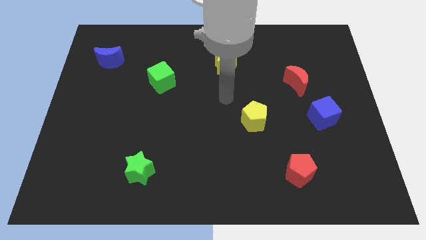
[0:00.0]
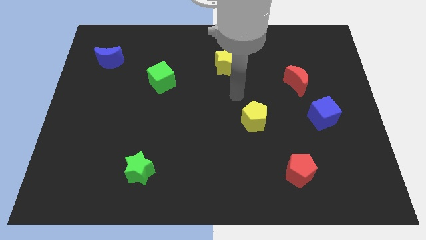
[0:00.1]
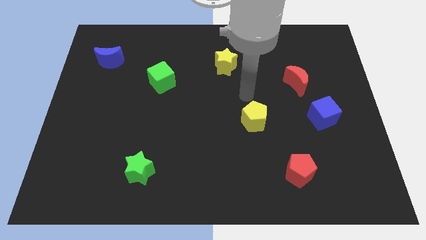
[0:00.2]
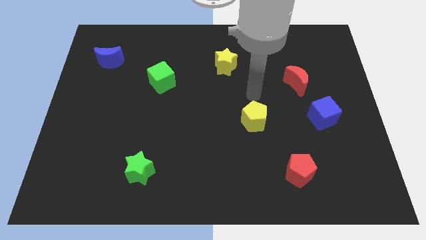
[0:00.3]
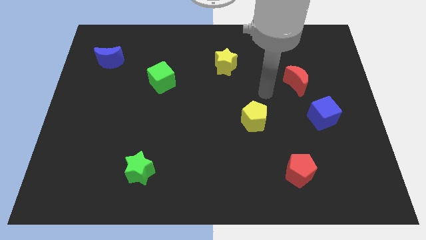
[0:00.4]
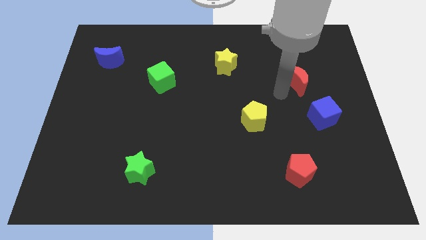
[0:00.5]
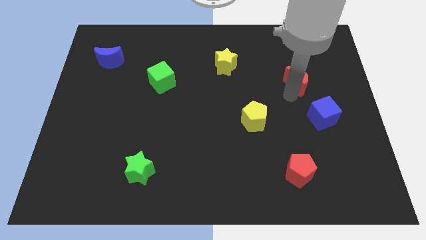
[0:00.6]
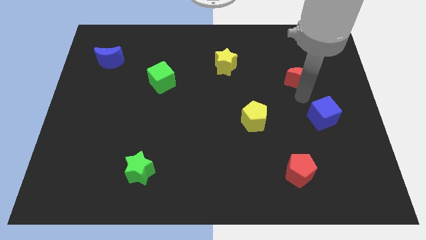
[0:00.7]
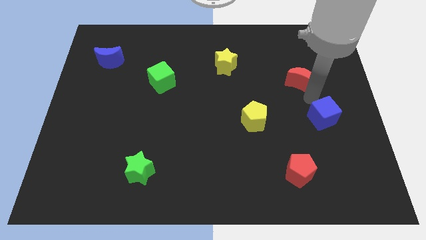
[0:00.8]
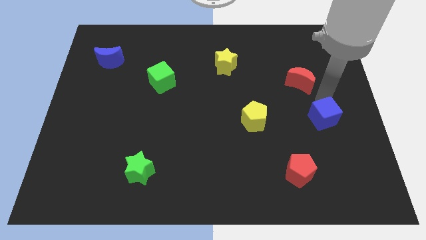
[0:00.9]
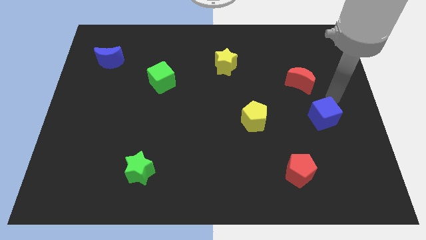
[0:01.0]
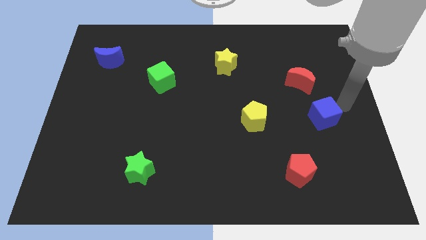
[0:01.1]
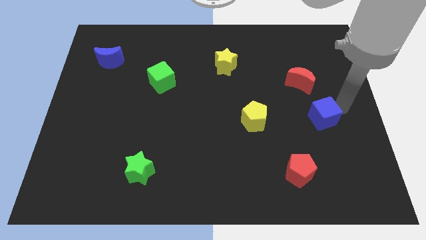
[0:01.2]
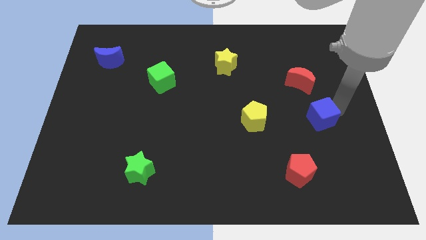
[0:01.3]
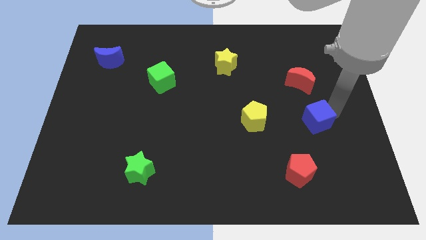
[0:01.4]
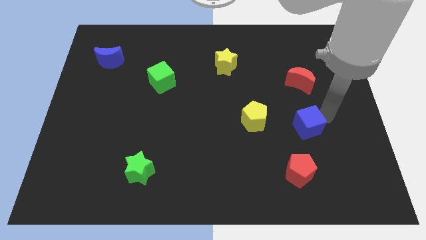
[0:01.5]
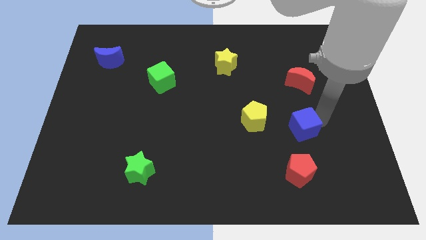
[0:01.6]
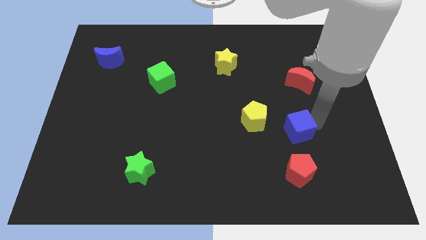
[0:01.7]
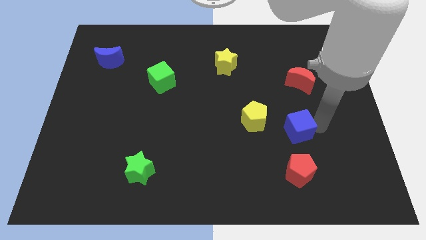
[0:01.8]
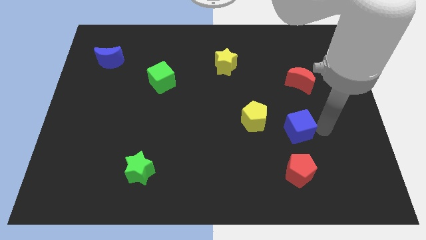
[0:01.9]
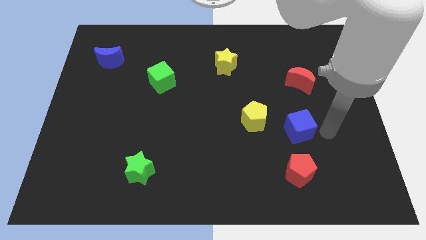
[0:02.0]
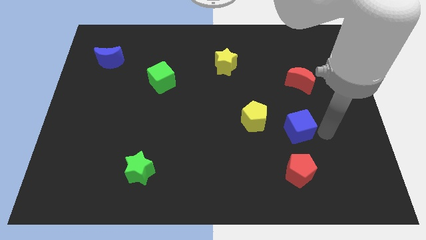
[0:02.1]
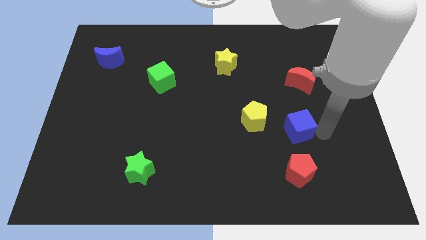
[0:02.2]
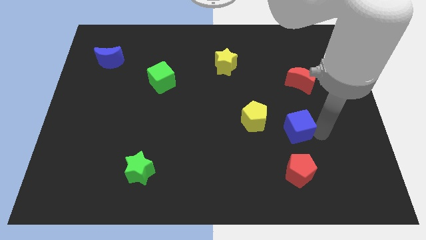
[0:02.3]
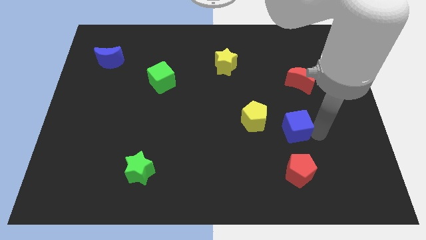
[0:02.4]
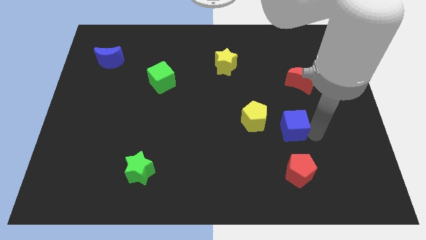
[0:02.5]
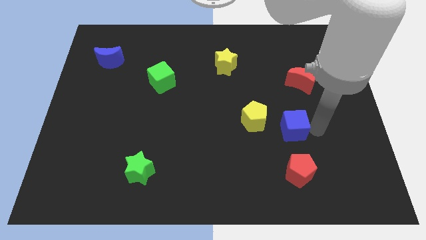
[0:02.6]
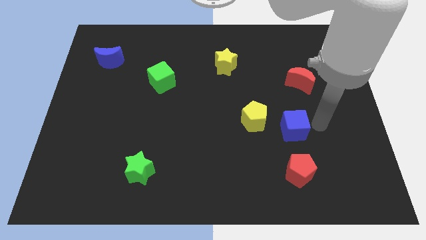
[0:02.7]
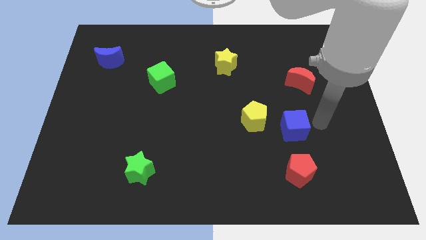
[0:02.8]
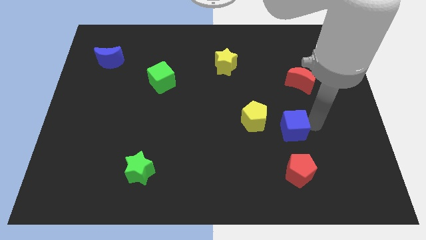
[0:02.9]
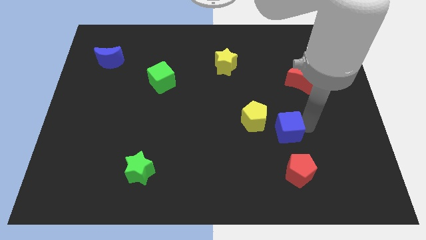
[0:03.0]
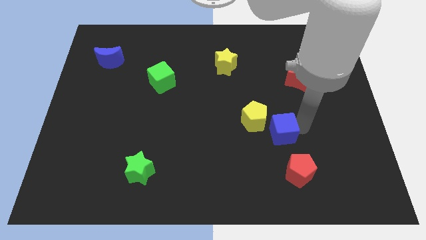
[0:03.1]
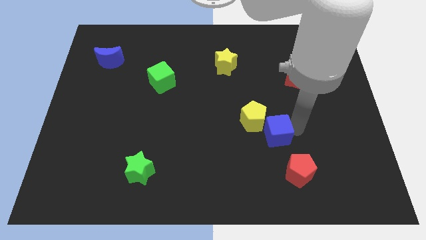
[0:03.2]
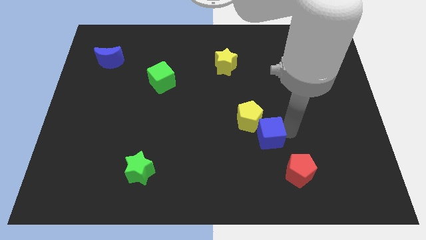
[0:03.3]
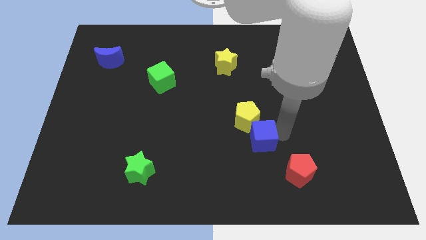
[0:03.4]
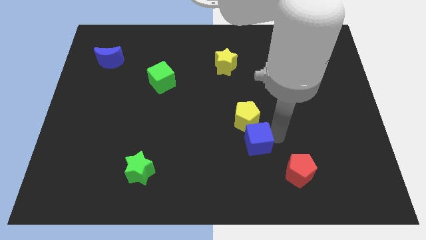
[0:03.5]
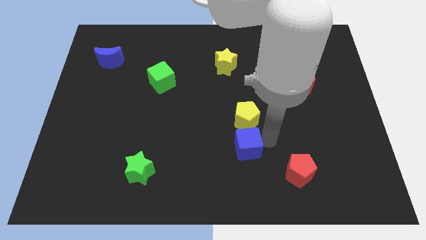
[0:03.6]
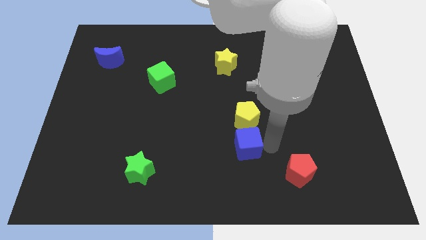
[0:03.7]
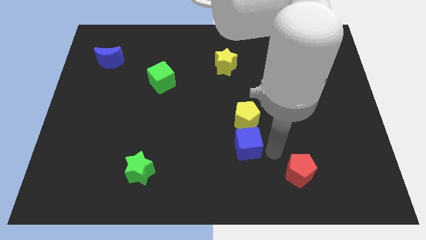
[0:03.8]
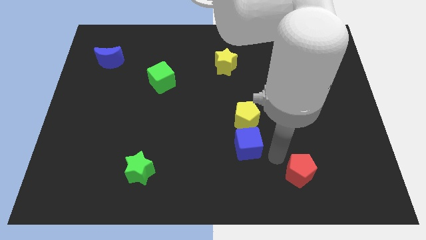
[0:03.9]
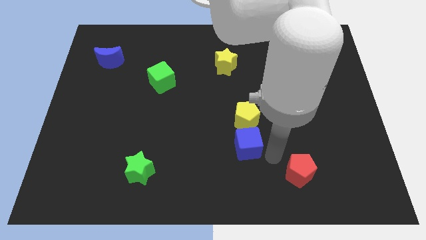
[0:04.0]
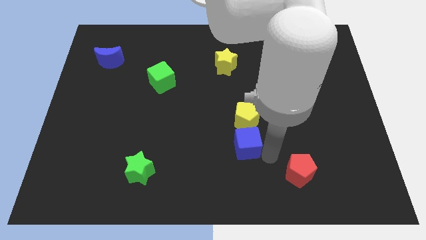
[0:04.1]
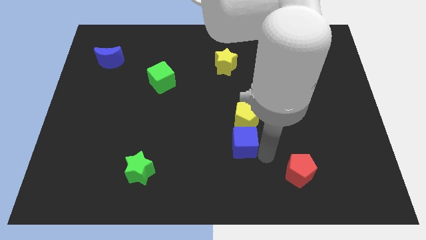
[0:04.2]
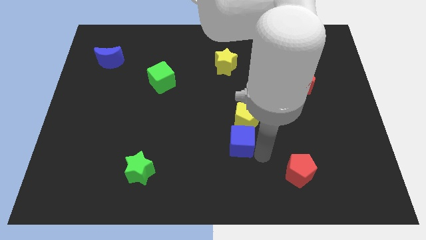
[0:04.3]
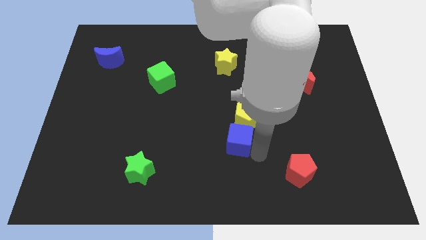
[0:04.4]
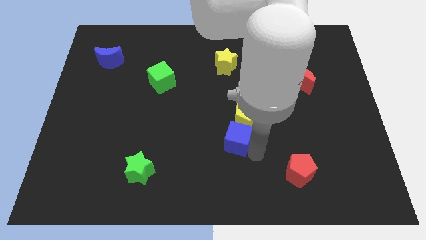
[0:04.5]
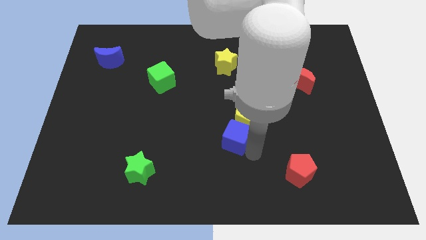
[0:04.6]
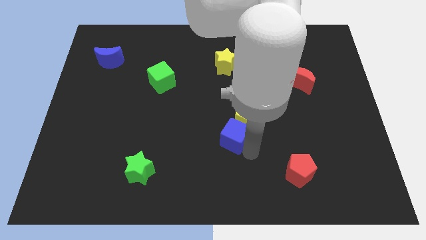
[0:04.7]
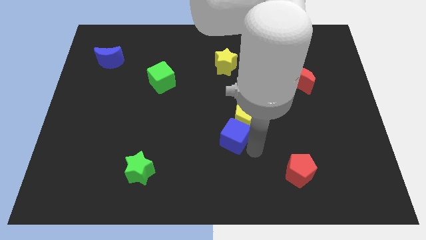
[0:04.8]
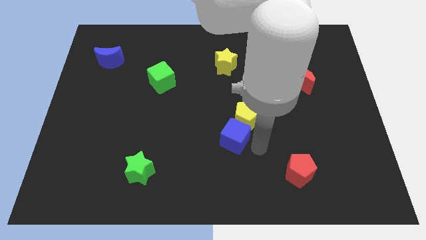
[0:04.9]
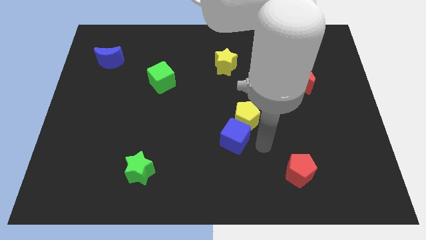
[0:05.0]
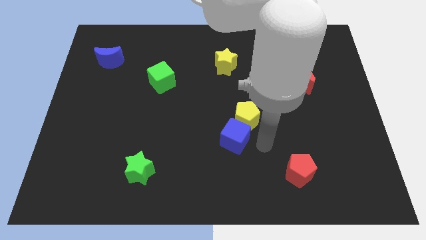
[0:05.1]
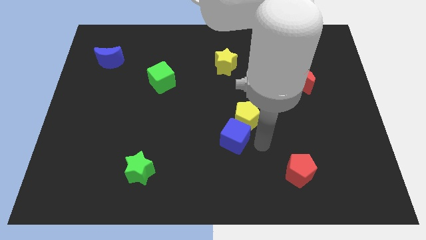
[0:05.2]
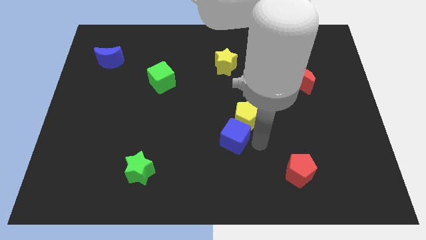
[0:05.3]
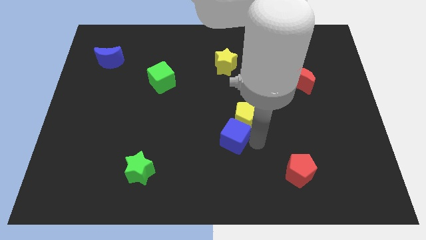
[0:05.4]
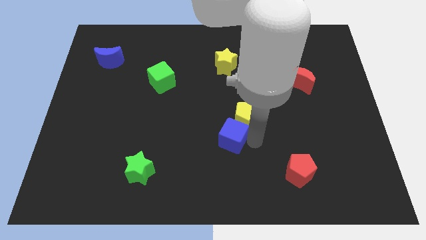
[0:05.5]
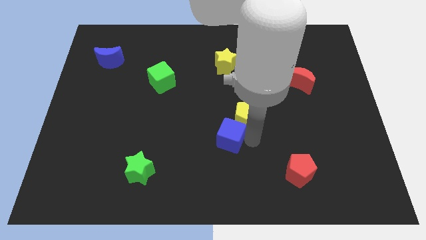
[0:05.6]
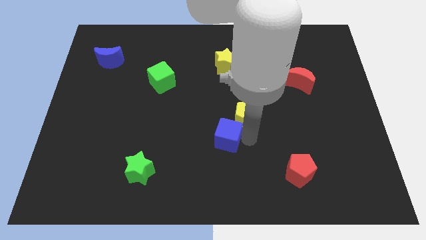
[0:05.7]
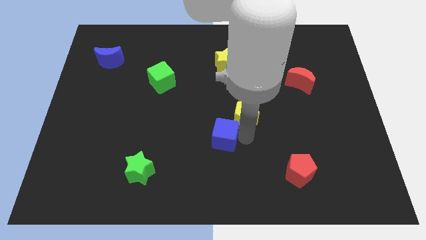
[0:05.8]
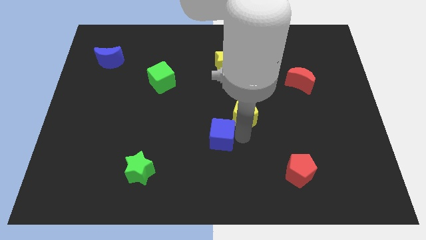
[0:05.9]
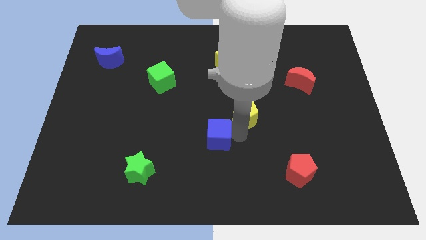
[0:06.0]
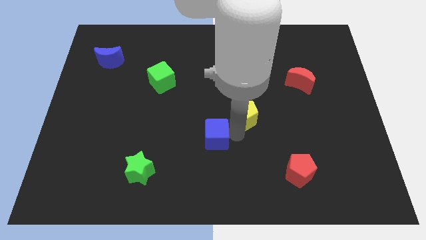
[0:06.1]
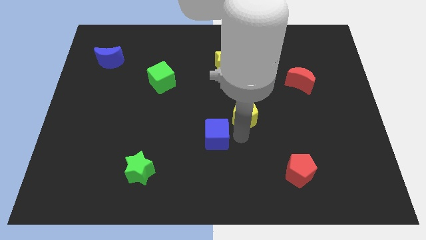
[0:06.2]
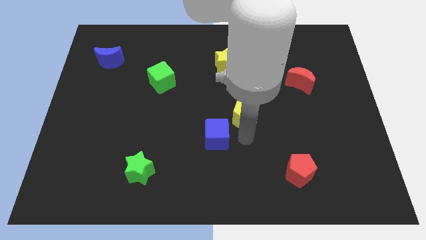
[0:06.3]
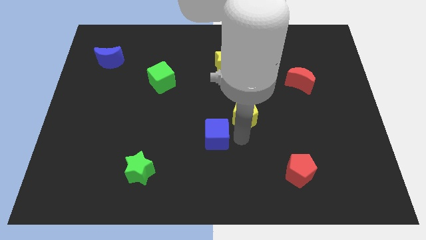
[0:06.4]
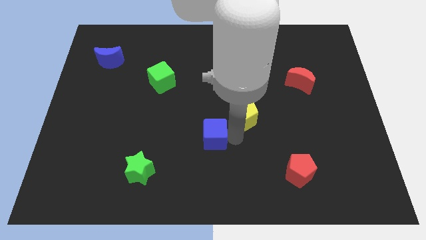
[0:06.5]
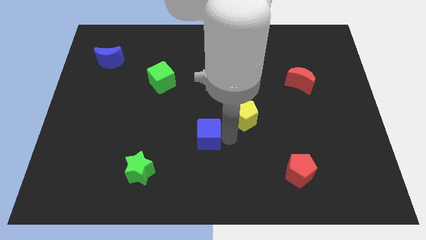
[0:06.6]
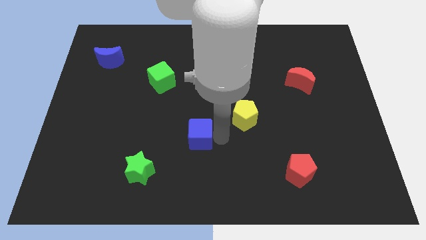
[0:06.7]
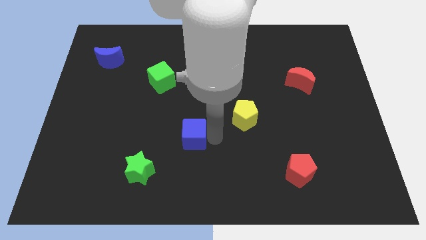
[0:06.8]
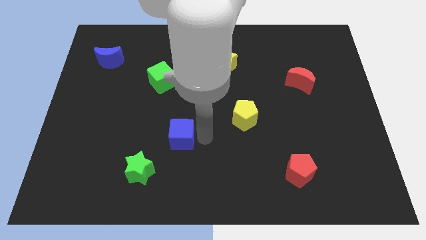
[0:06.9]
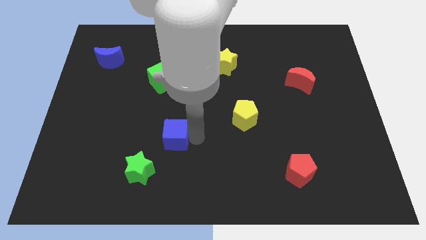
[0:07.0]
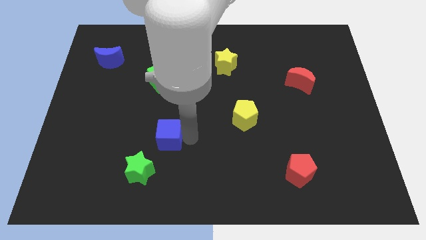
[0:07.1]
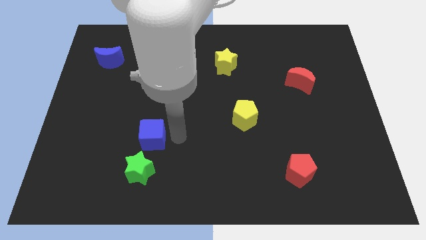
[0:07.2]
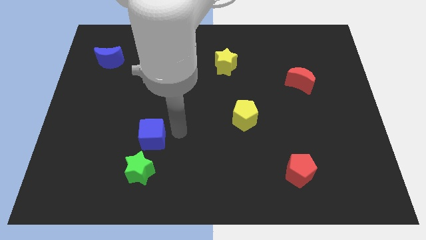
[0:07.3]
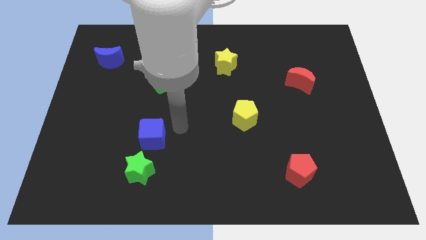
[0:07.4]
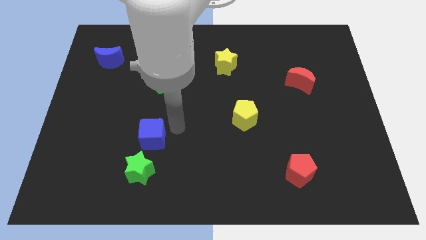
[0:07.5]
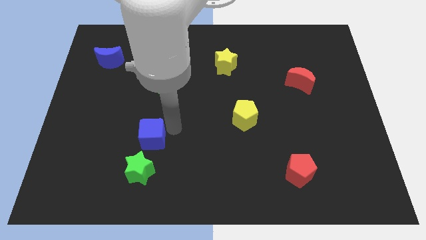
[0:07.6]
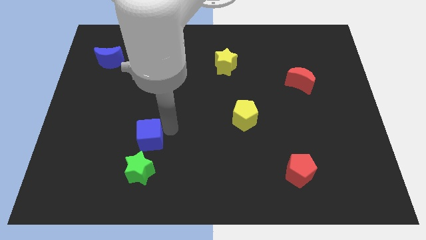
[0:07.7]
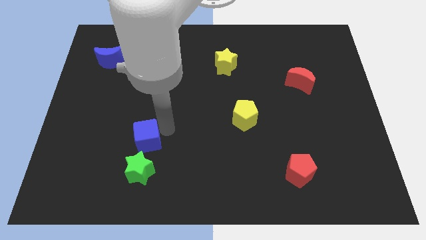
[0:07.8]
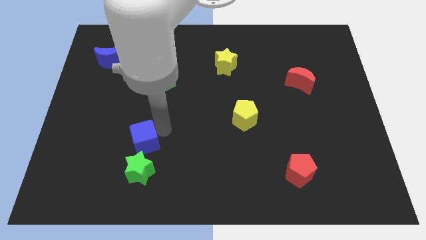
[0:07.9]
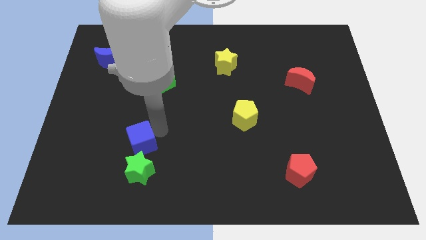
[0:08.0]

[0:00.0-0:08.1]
move the blue cube diagonally up and to the left of the green star
